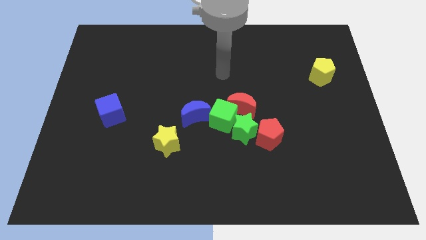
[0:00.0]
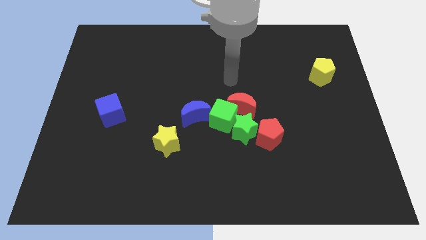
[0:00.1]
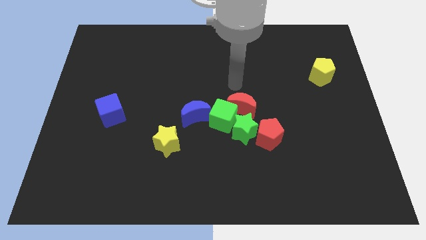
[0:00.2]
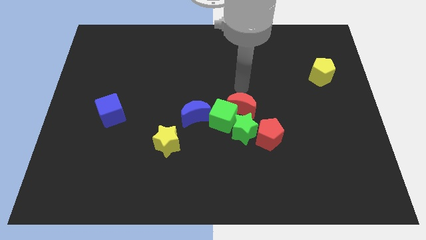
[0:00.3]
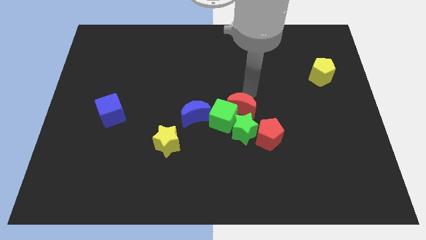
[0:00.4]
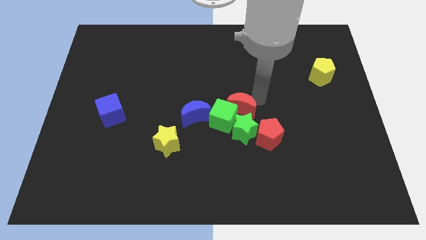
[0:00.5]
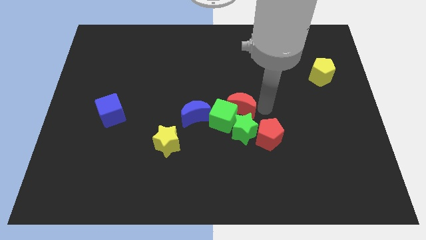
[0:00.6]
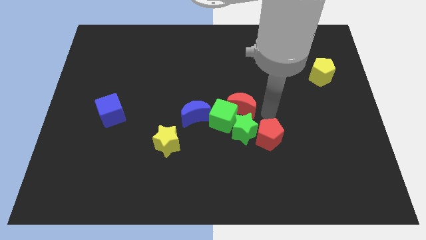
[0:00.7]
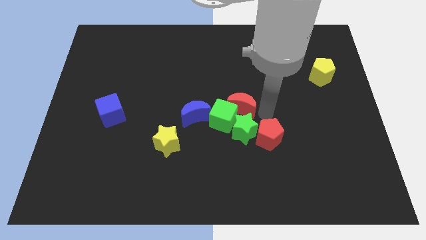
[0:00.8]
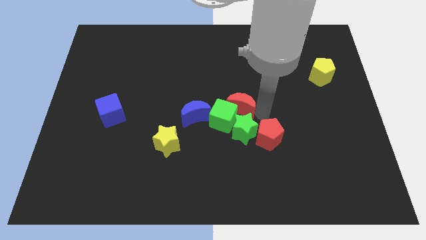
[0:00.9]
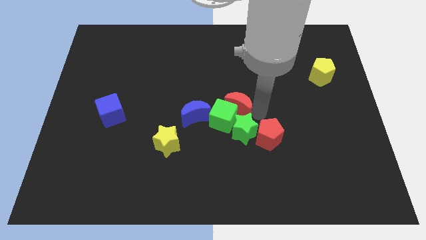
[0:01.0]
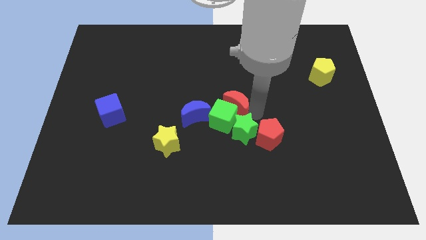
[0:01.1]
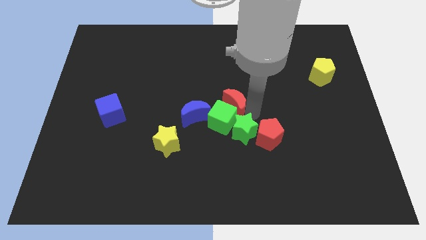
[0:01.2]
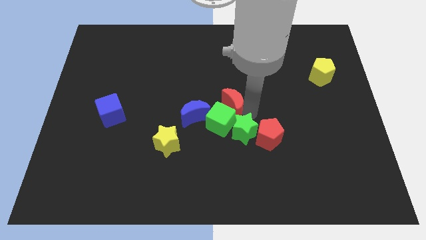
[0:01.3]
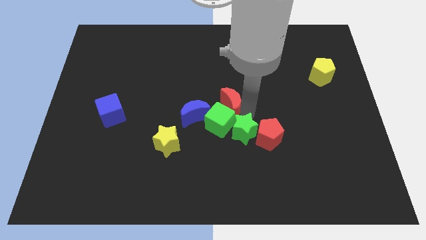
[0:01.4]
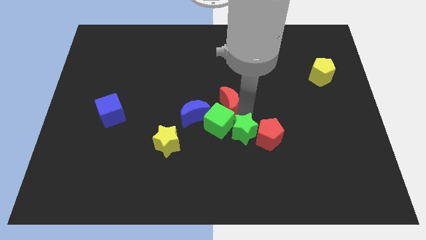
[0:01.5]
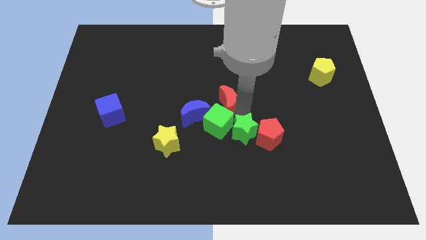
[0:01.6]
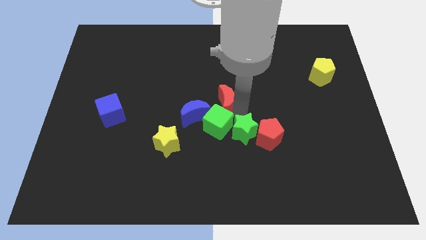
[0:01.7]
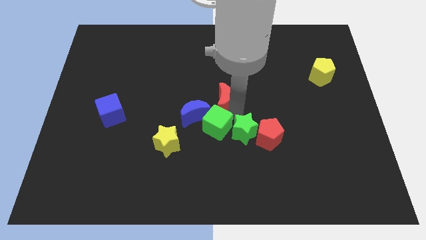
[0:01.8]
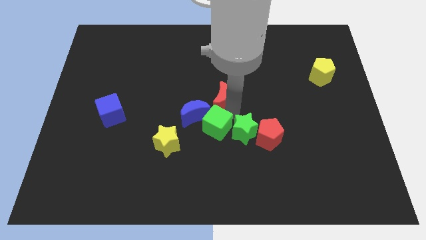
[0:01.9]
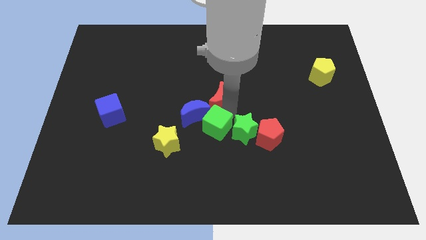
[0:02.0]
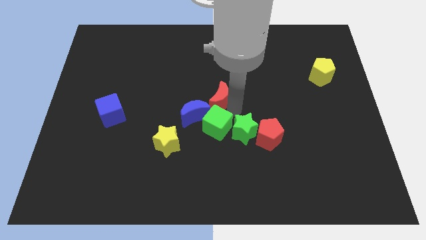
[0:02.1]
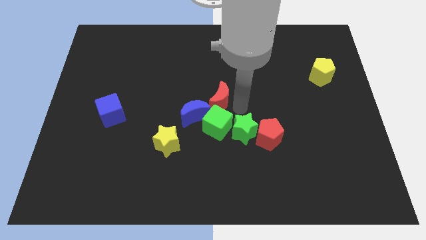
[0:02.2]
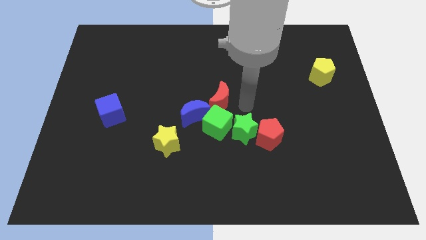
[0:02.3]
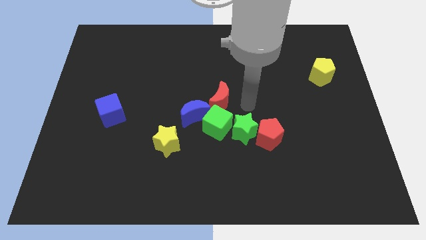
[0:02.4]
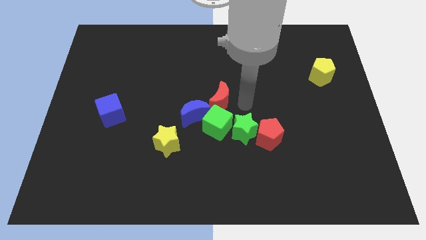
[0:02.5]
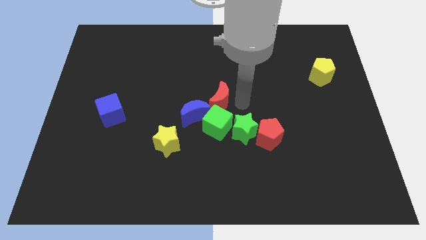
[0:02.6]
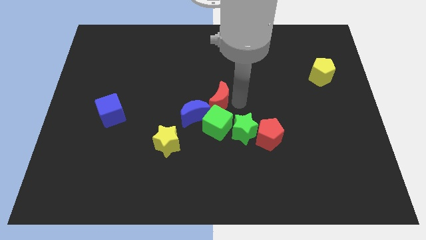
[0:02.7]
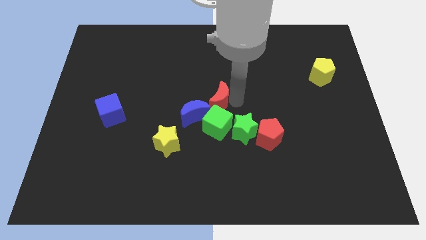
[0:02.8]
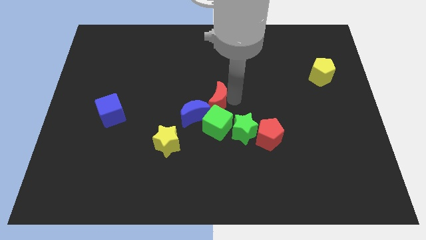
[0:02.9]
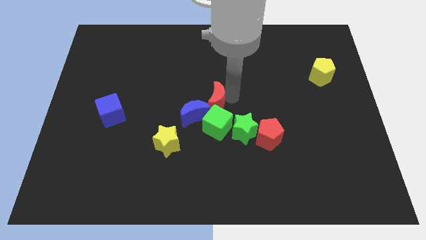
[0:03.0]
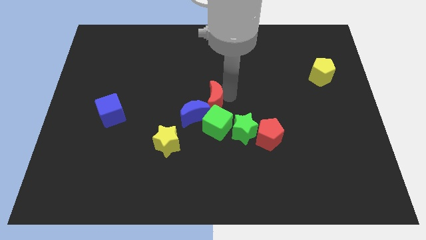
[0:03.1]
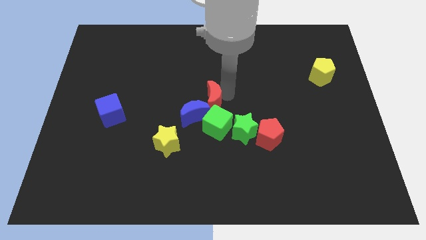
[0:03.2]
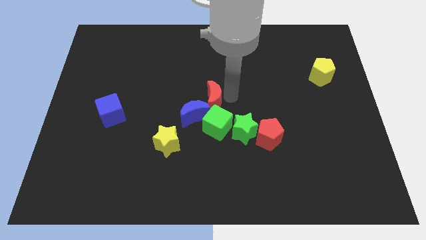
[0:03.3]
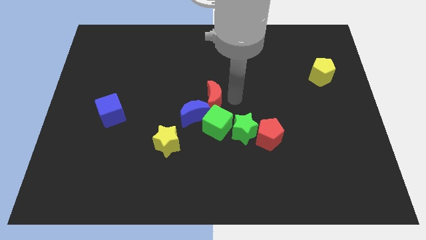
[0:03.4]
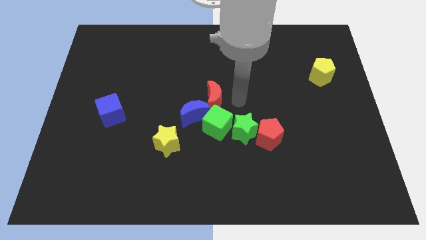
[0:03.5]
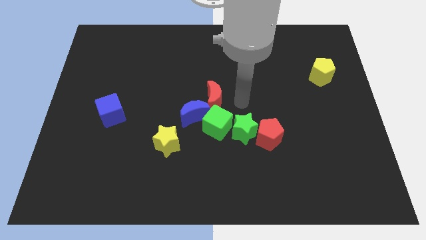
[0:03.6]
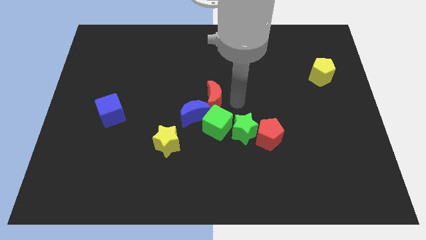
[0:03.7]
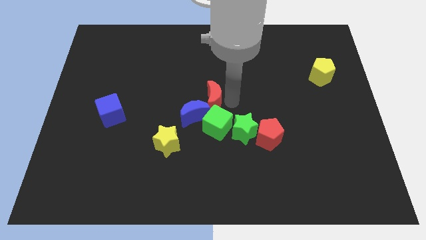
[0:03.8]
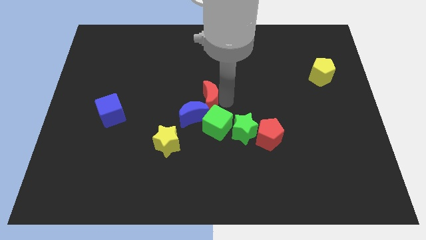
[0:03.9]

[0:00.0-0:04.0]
slightly push the red moon left

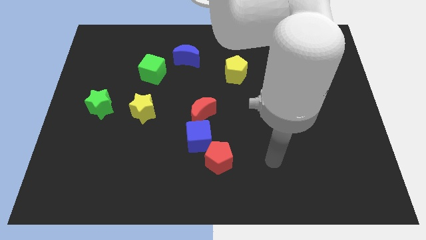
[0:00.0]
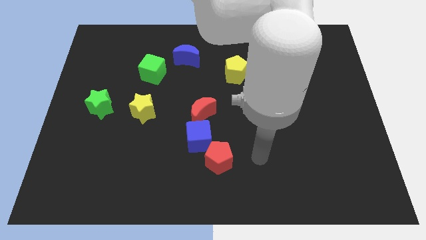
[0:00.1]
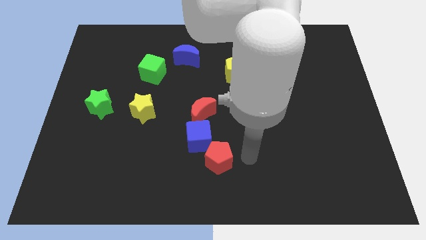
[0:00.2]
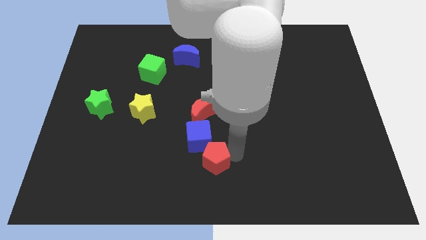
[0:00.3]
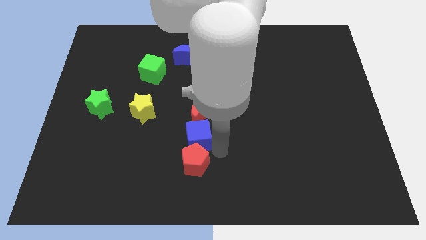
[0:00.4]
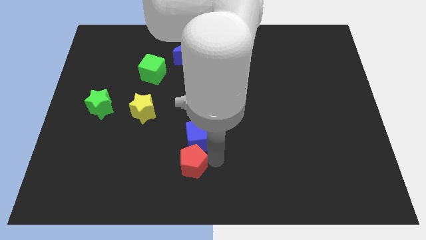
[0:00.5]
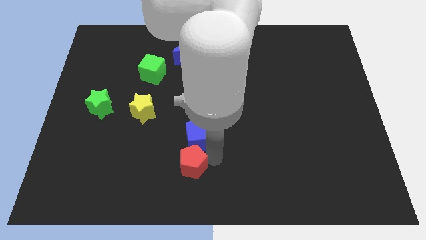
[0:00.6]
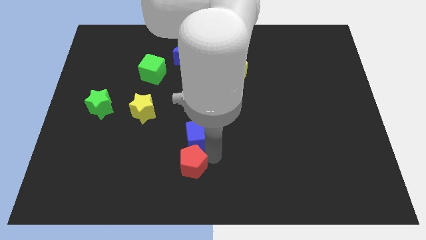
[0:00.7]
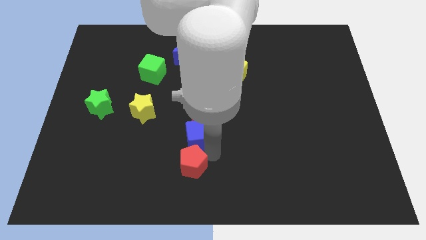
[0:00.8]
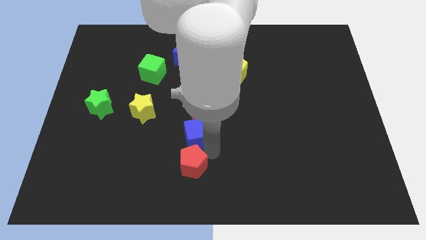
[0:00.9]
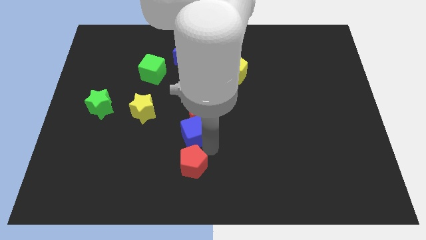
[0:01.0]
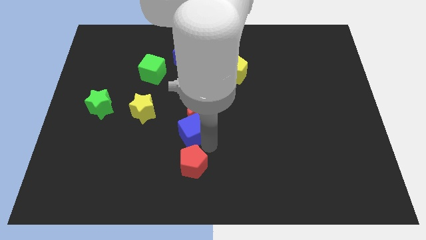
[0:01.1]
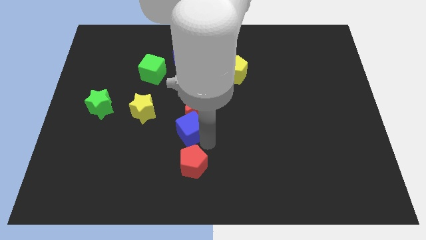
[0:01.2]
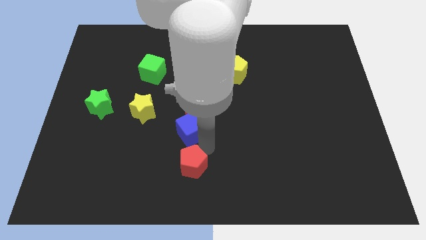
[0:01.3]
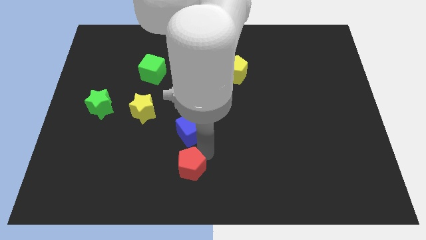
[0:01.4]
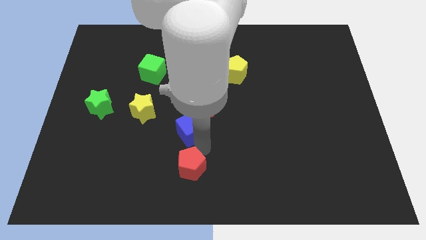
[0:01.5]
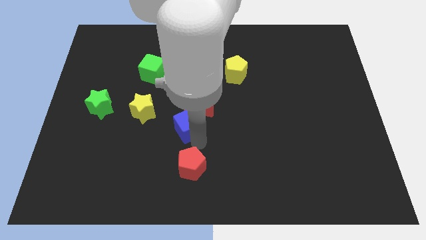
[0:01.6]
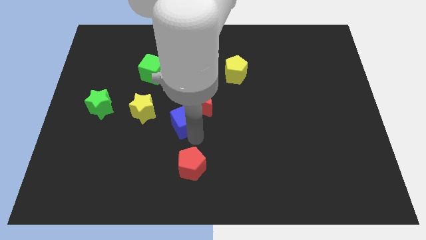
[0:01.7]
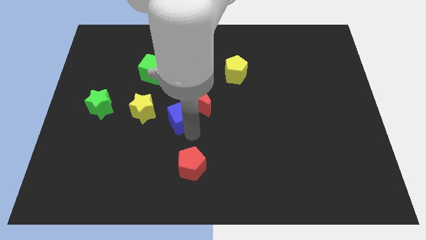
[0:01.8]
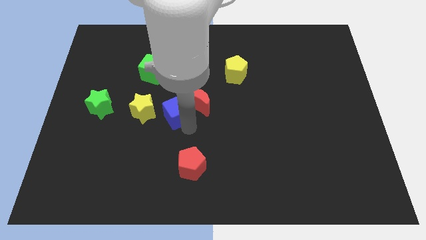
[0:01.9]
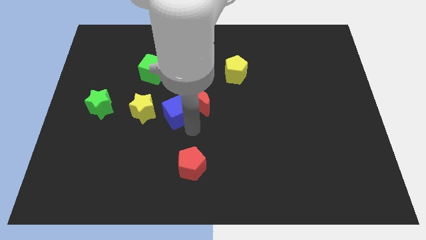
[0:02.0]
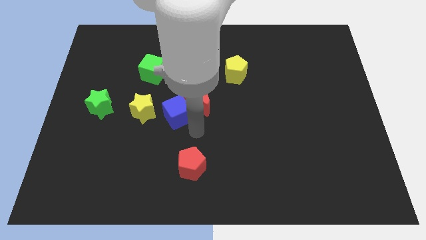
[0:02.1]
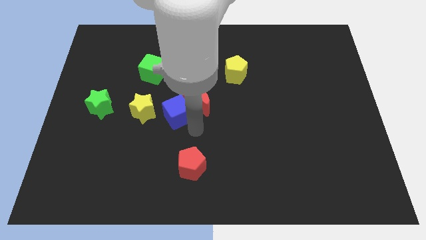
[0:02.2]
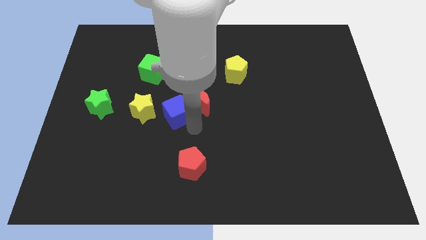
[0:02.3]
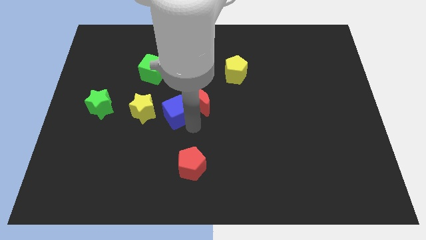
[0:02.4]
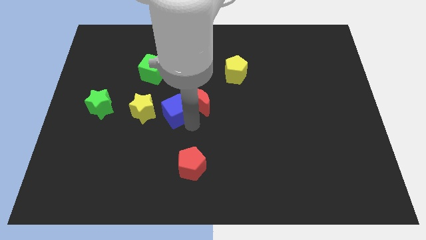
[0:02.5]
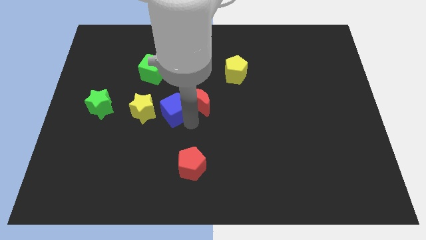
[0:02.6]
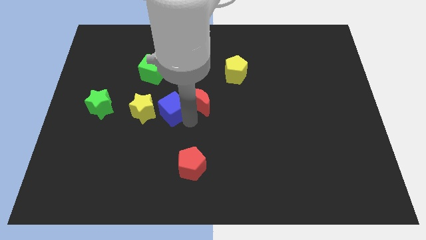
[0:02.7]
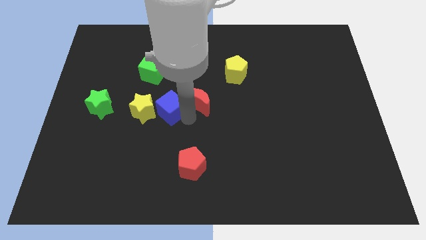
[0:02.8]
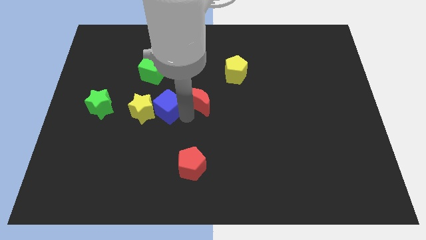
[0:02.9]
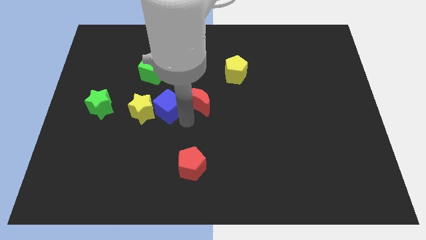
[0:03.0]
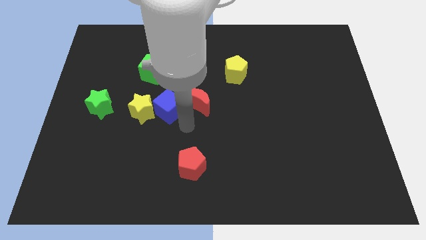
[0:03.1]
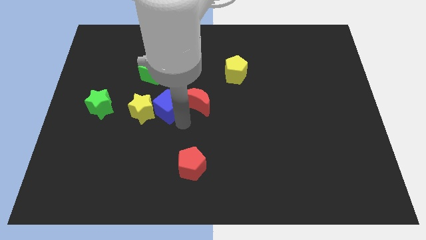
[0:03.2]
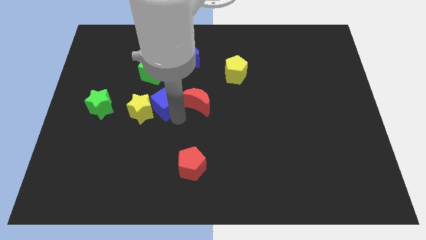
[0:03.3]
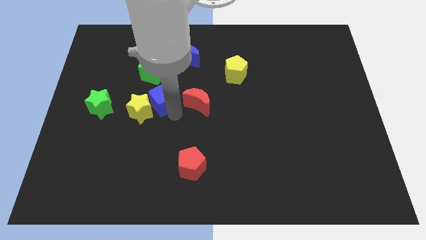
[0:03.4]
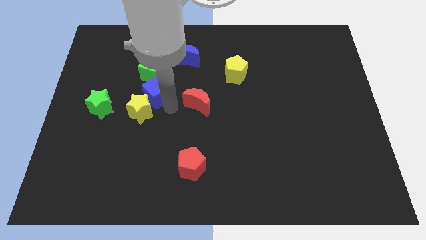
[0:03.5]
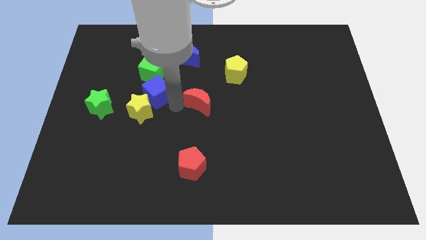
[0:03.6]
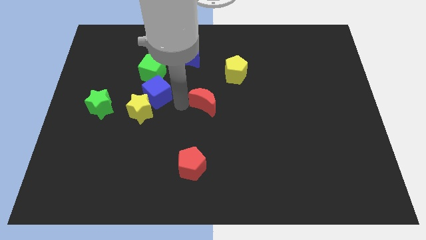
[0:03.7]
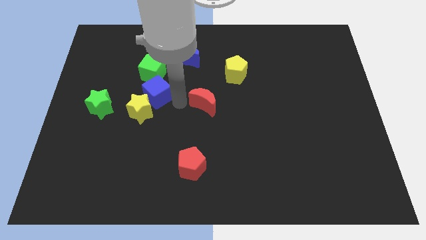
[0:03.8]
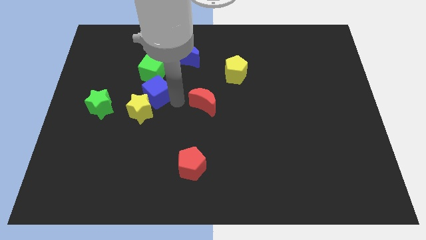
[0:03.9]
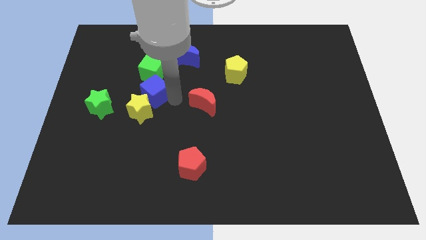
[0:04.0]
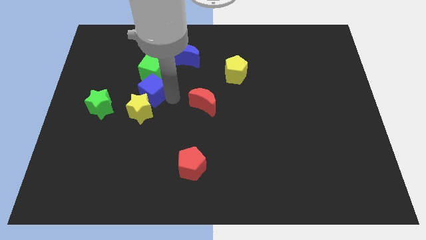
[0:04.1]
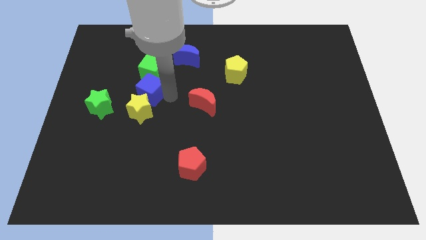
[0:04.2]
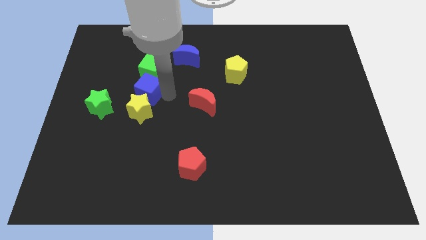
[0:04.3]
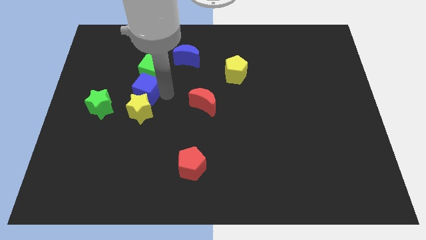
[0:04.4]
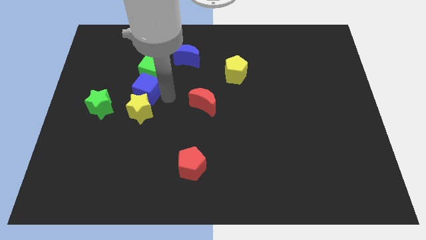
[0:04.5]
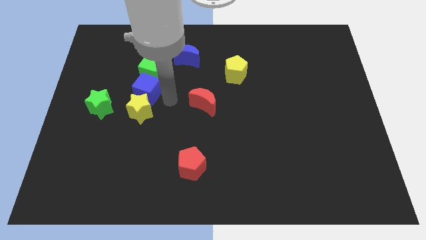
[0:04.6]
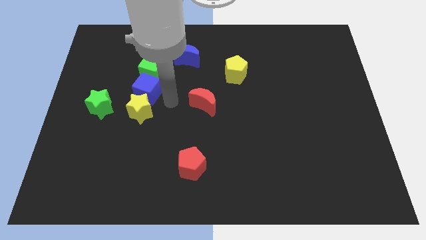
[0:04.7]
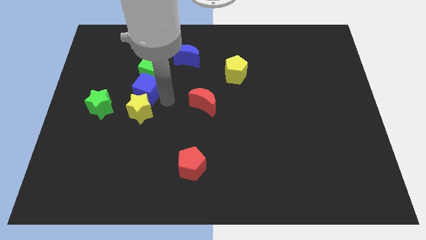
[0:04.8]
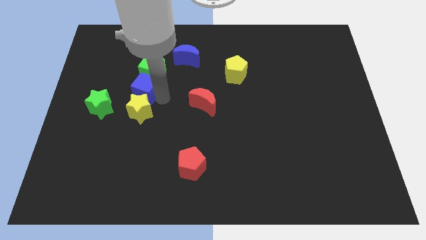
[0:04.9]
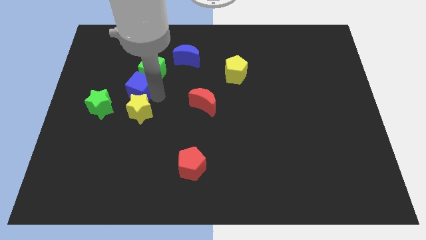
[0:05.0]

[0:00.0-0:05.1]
slide the blue cube up and then to the left
